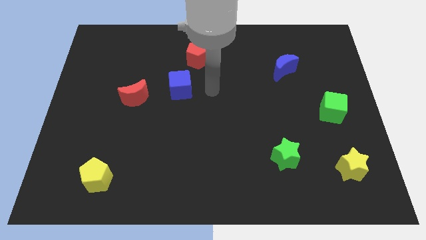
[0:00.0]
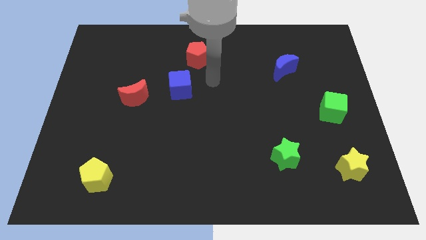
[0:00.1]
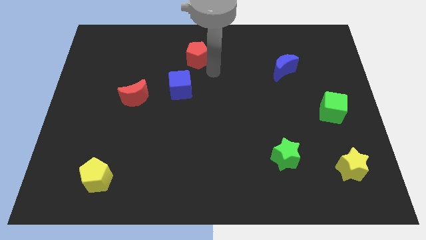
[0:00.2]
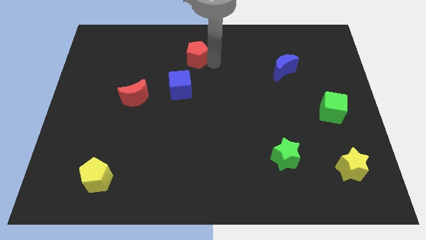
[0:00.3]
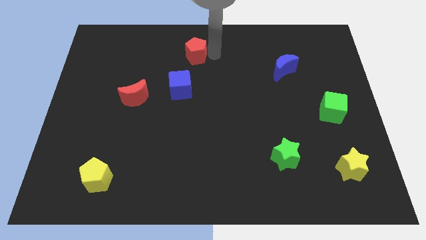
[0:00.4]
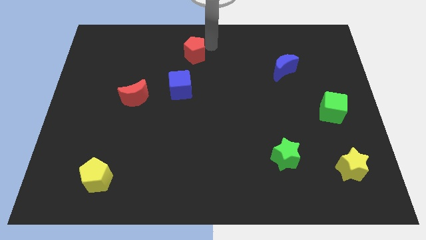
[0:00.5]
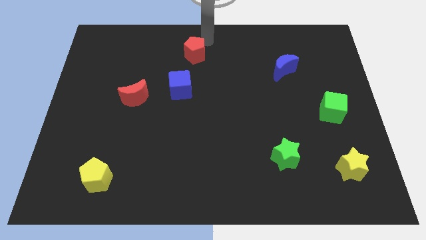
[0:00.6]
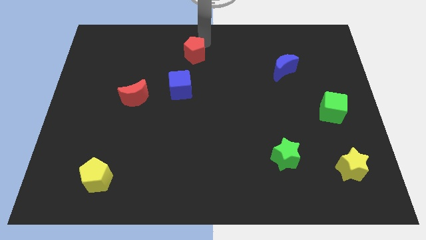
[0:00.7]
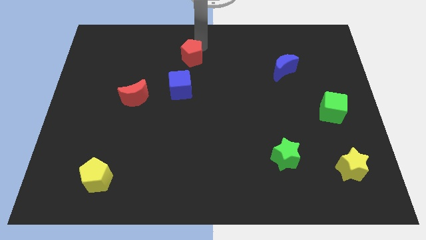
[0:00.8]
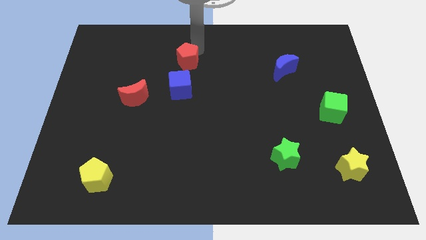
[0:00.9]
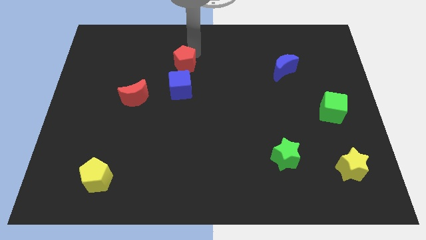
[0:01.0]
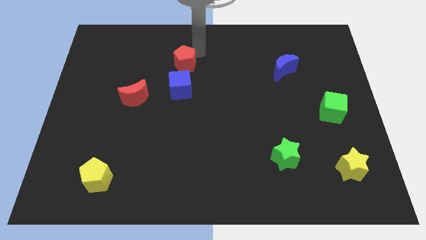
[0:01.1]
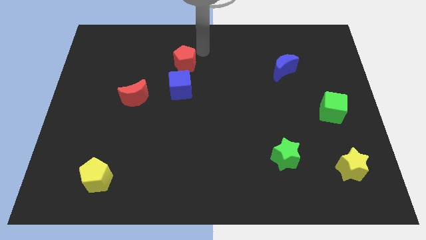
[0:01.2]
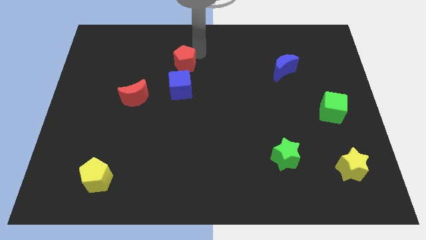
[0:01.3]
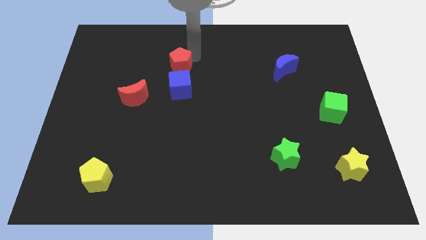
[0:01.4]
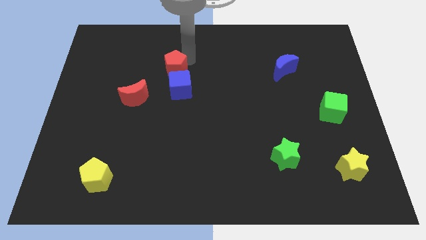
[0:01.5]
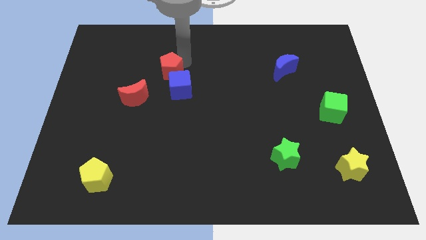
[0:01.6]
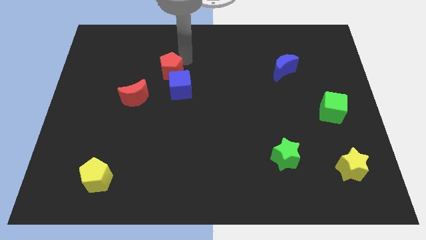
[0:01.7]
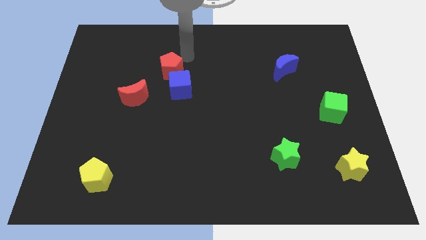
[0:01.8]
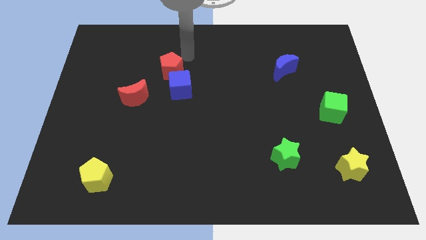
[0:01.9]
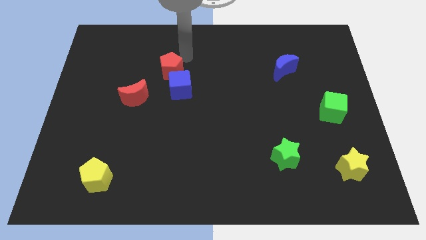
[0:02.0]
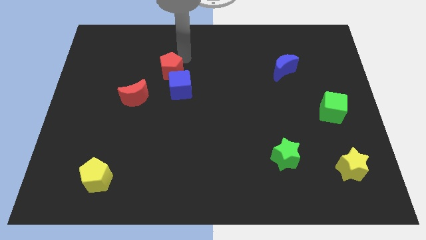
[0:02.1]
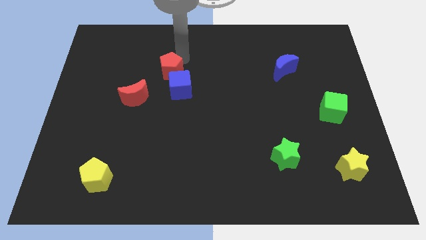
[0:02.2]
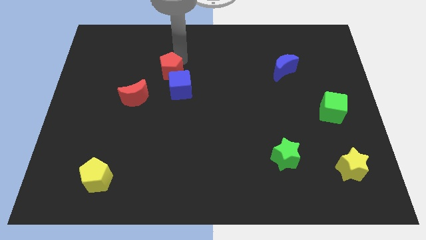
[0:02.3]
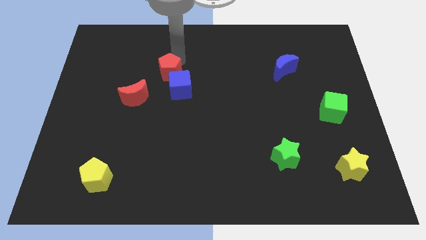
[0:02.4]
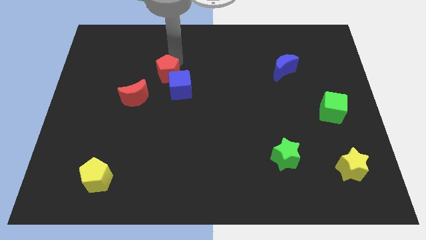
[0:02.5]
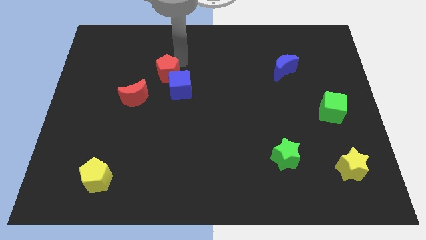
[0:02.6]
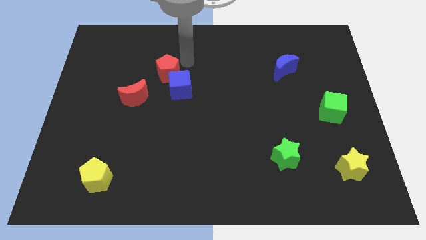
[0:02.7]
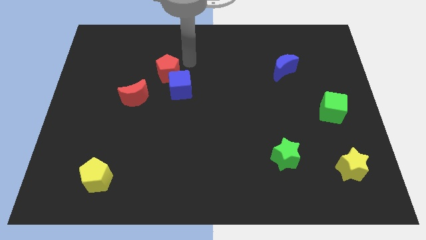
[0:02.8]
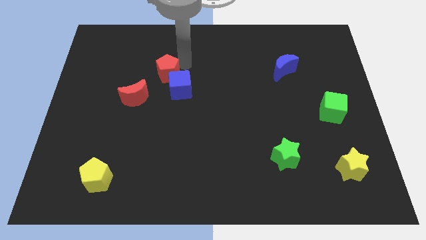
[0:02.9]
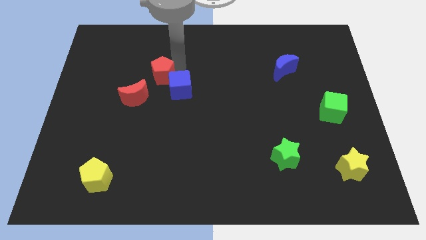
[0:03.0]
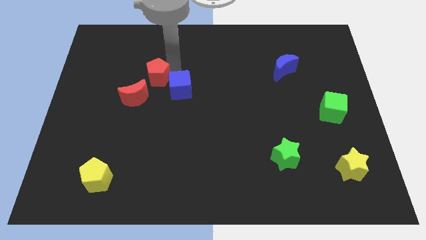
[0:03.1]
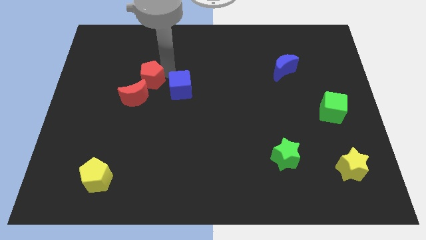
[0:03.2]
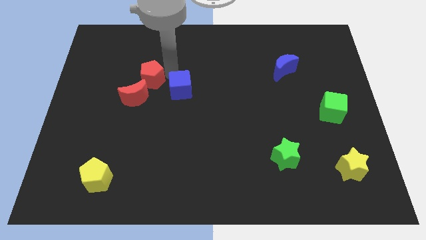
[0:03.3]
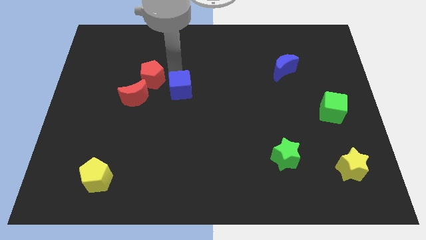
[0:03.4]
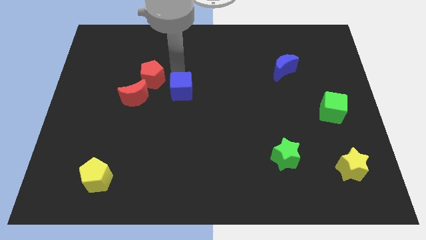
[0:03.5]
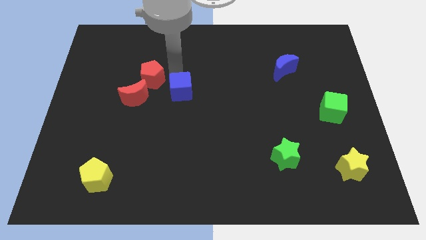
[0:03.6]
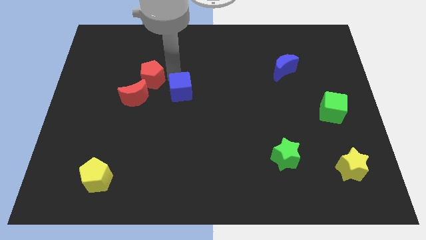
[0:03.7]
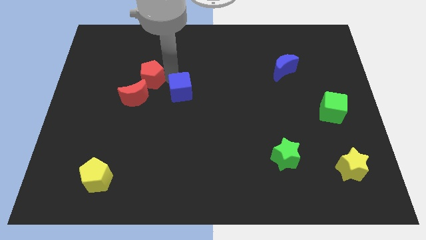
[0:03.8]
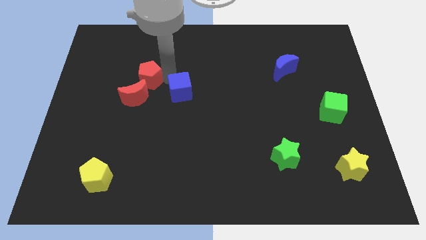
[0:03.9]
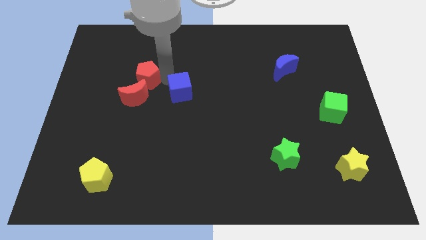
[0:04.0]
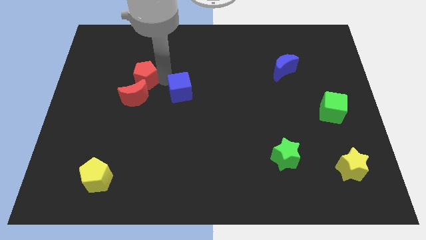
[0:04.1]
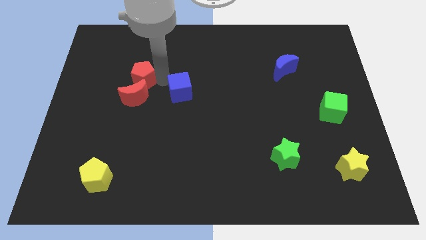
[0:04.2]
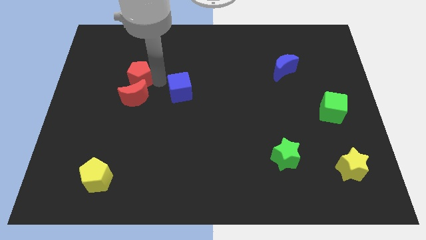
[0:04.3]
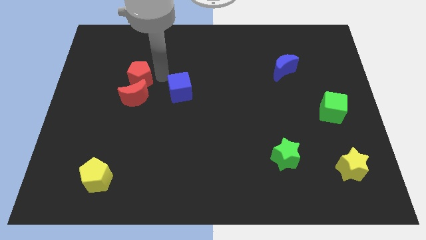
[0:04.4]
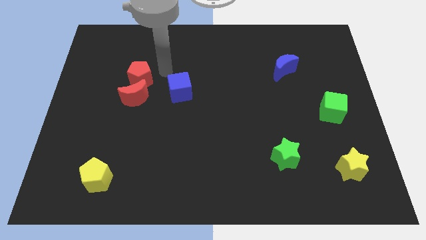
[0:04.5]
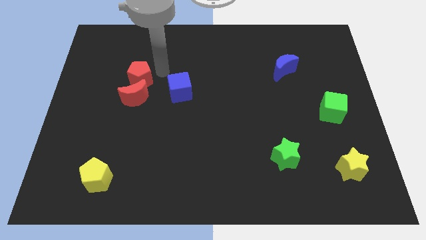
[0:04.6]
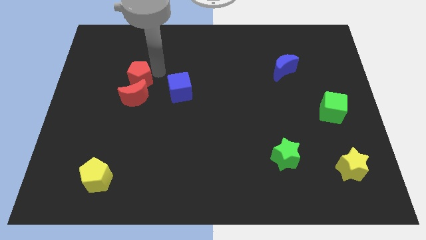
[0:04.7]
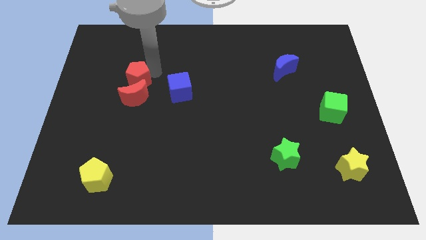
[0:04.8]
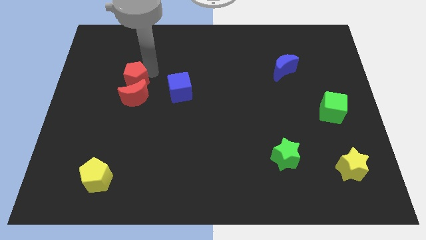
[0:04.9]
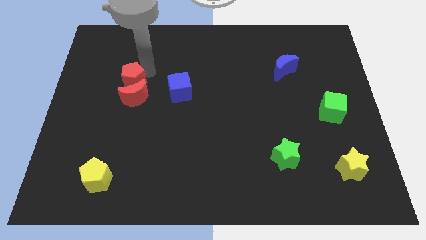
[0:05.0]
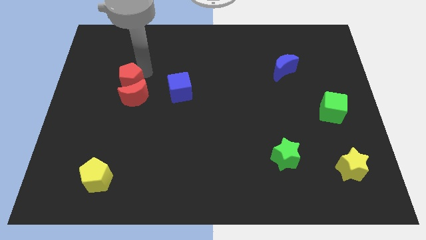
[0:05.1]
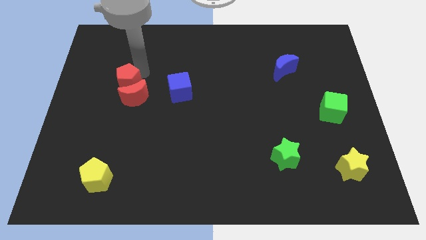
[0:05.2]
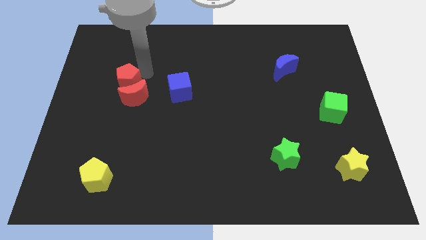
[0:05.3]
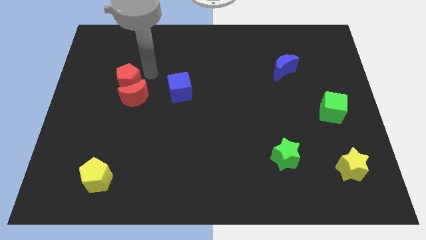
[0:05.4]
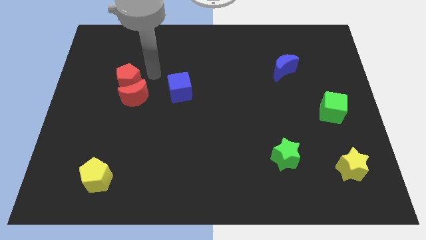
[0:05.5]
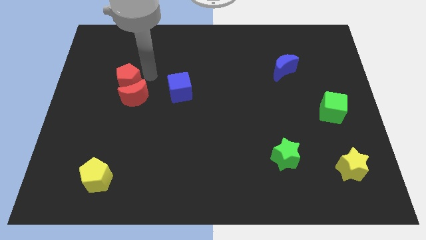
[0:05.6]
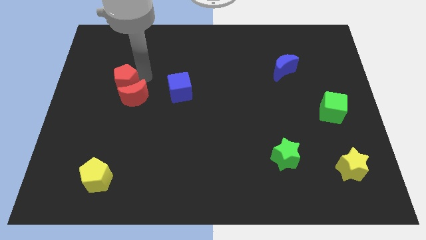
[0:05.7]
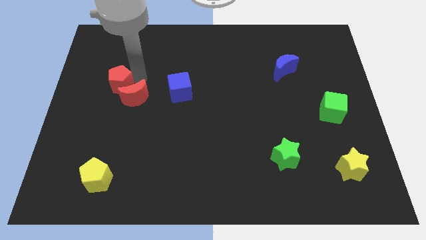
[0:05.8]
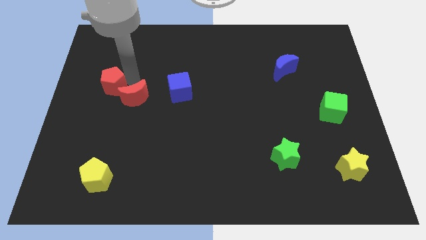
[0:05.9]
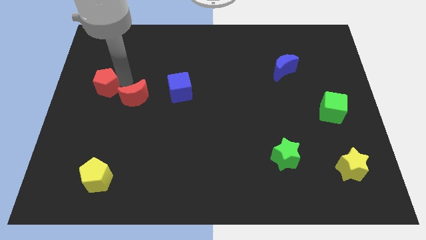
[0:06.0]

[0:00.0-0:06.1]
slide the red pentagon to the center left

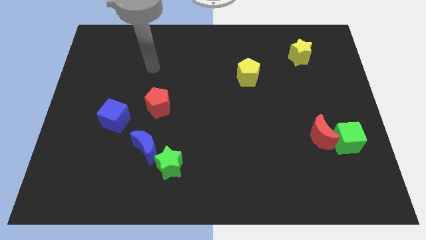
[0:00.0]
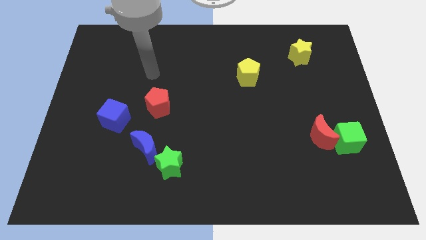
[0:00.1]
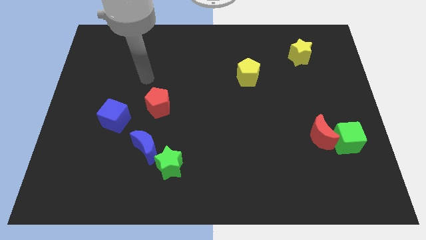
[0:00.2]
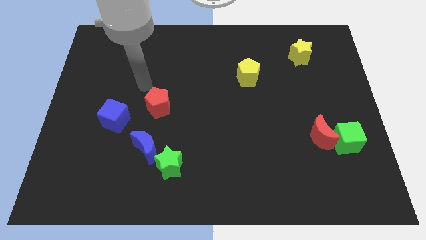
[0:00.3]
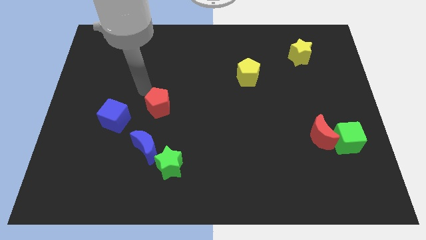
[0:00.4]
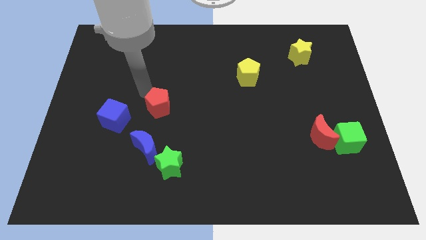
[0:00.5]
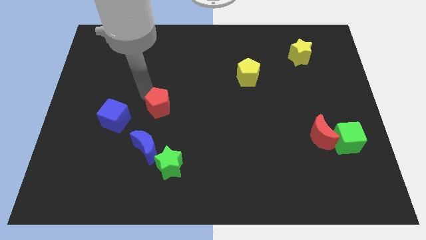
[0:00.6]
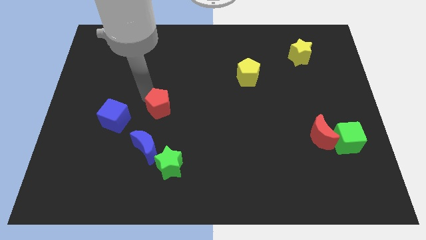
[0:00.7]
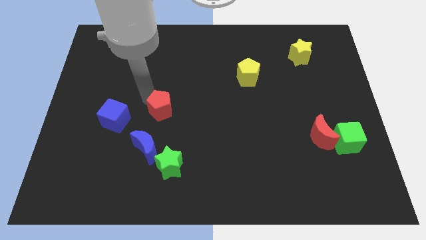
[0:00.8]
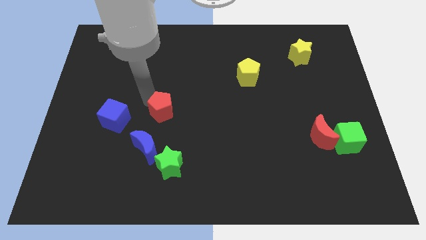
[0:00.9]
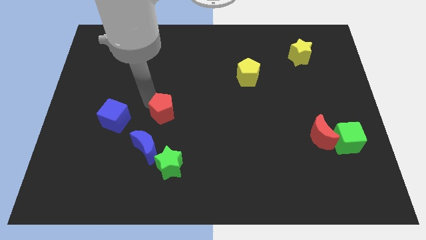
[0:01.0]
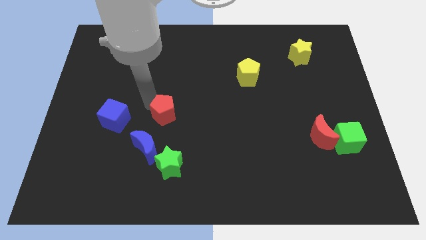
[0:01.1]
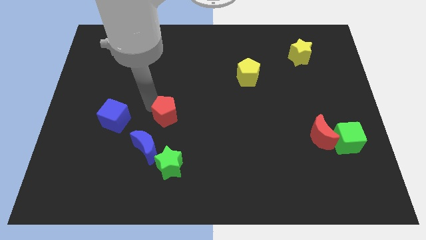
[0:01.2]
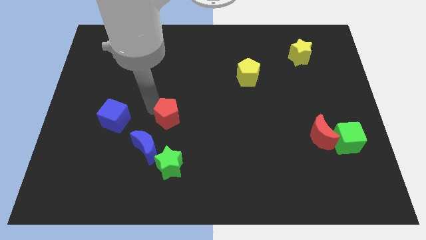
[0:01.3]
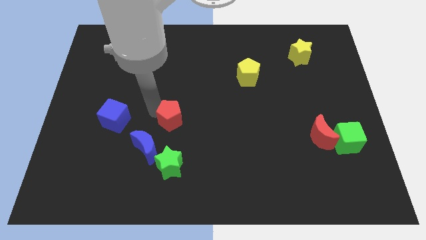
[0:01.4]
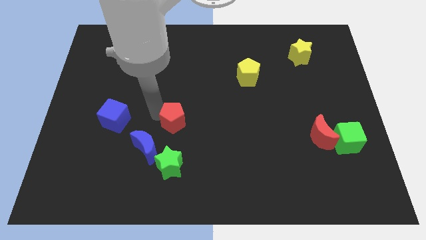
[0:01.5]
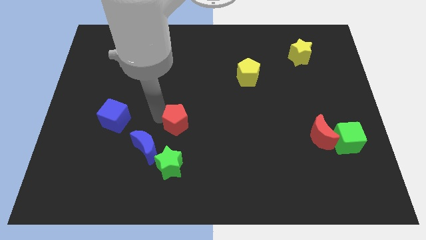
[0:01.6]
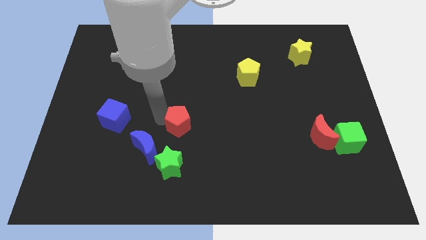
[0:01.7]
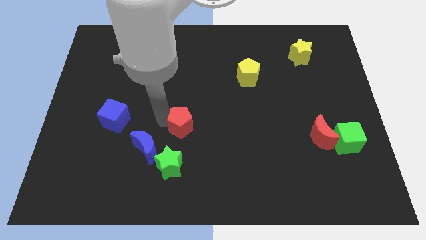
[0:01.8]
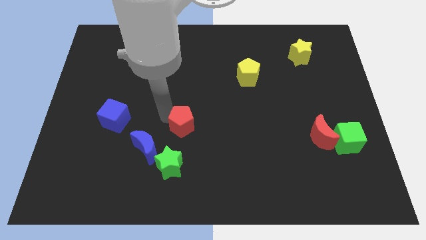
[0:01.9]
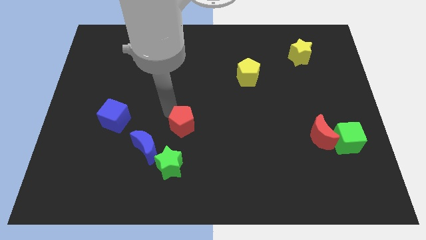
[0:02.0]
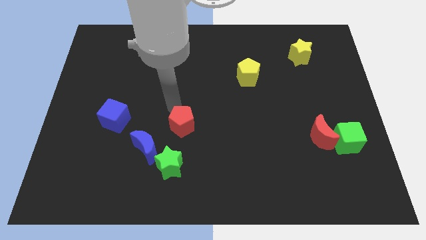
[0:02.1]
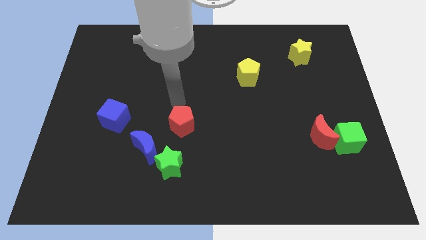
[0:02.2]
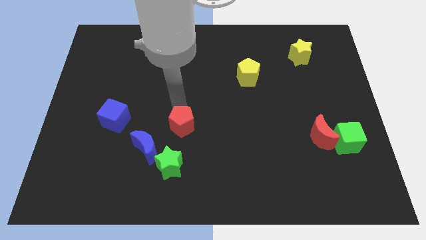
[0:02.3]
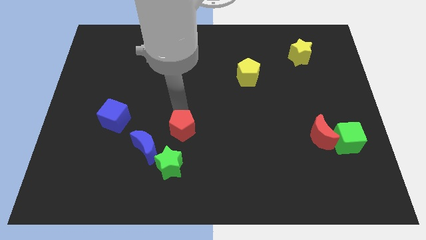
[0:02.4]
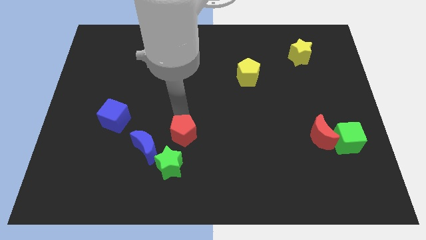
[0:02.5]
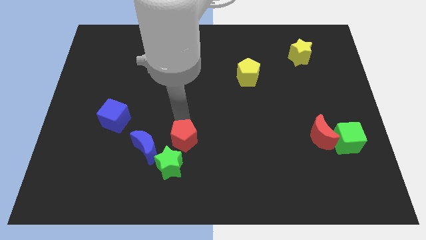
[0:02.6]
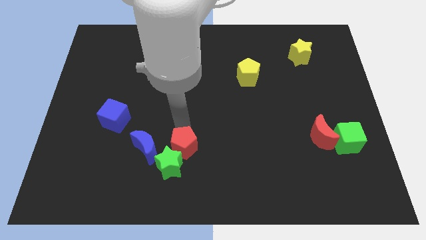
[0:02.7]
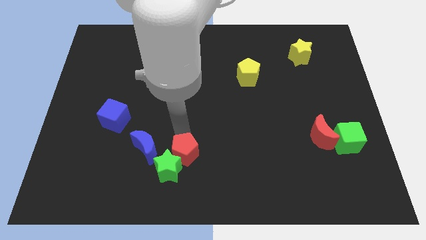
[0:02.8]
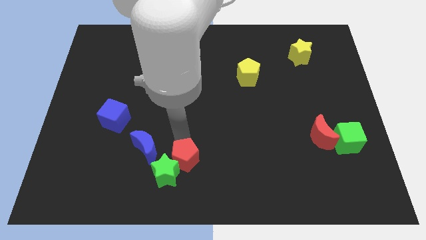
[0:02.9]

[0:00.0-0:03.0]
push the red pentagon to the bottom side
